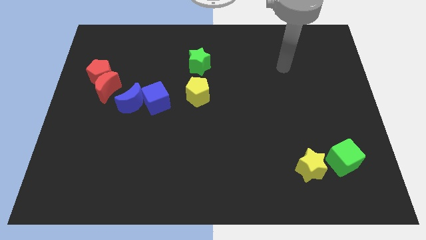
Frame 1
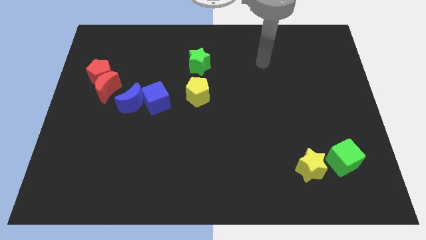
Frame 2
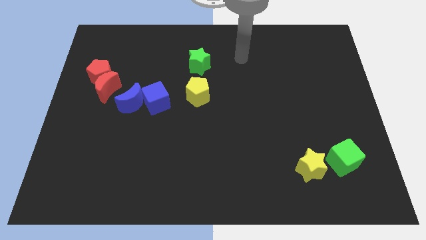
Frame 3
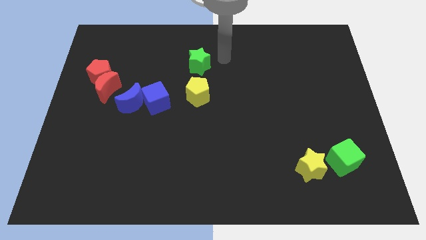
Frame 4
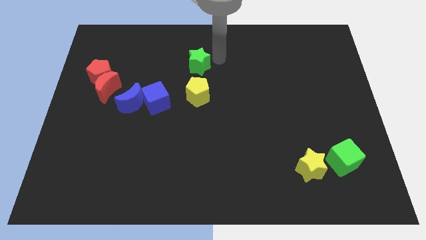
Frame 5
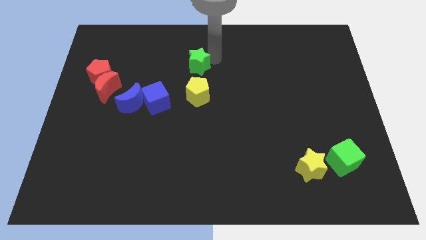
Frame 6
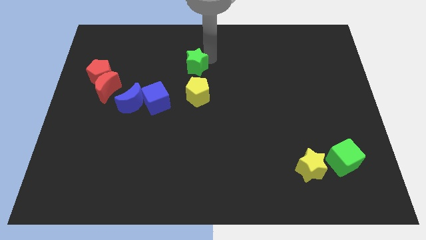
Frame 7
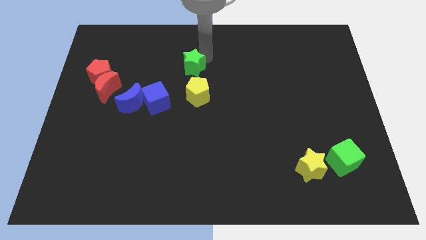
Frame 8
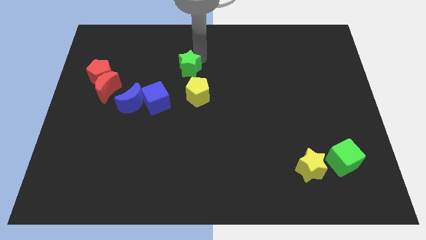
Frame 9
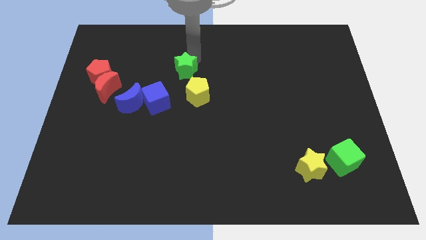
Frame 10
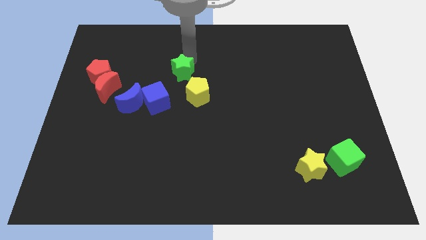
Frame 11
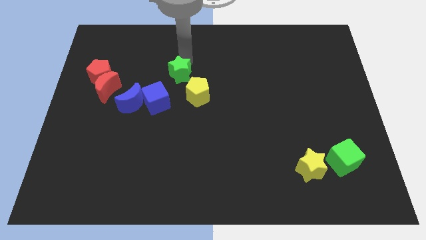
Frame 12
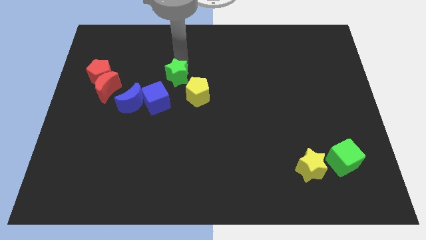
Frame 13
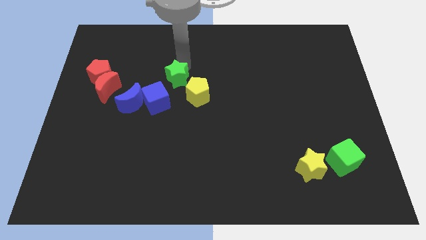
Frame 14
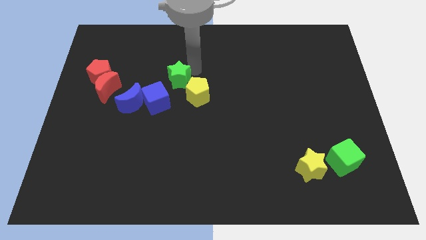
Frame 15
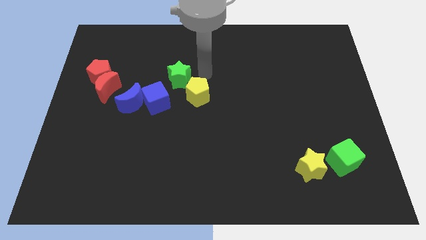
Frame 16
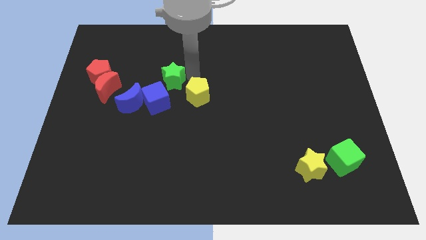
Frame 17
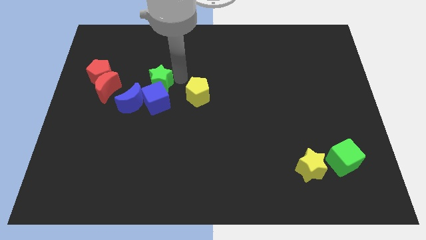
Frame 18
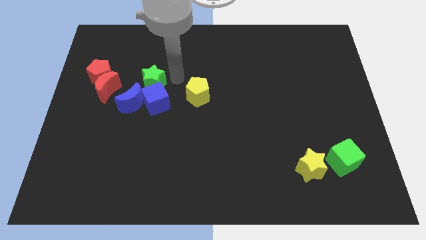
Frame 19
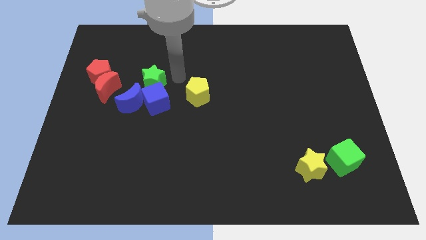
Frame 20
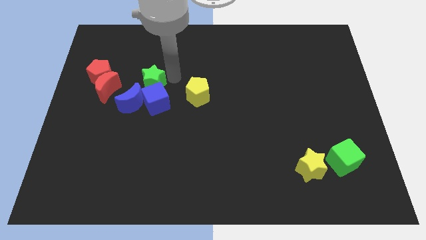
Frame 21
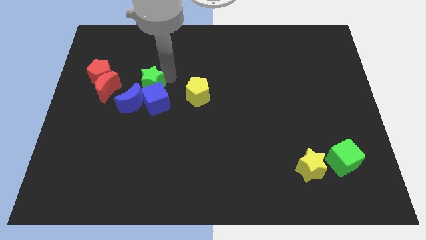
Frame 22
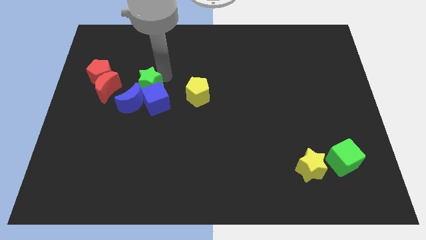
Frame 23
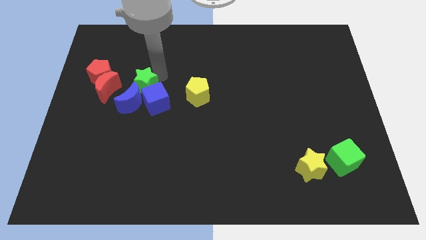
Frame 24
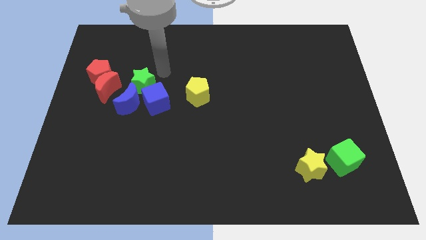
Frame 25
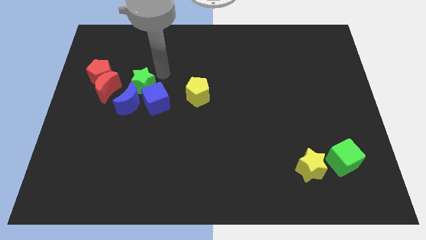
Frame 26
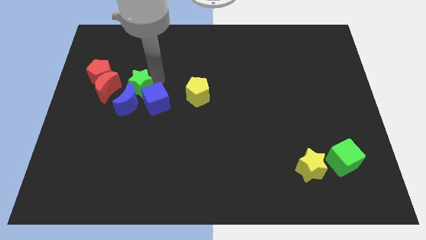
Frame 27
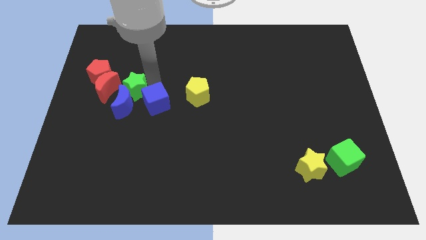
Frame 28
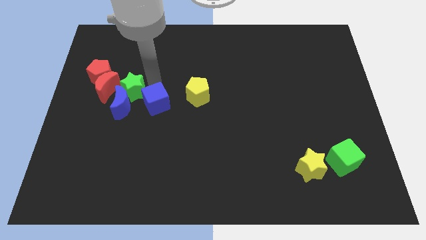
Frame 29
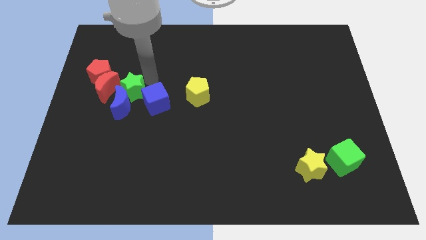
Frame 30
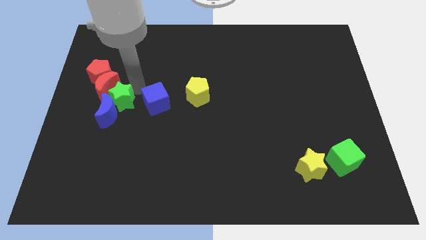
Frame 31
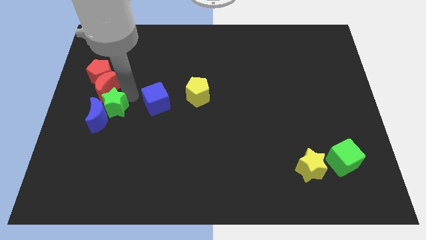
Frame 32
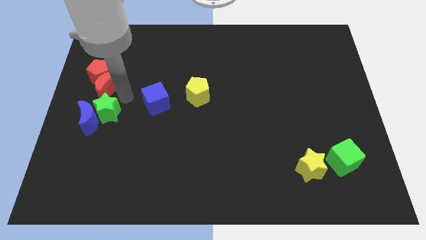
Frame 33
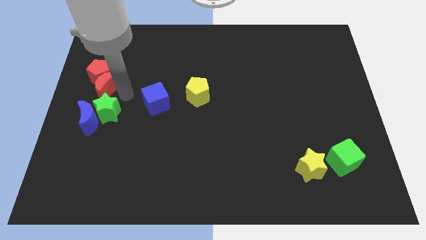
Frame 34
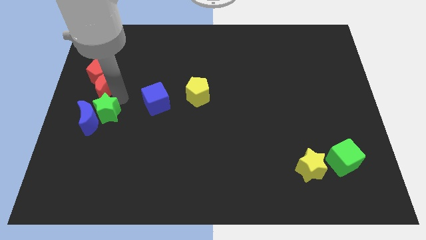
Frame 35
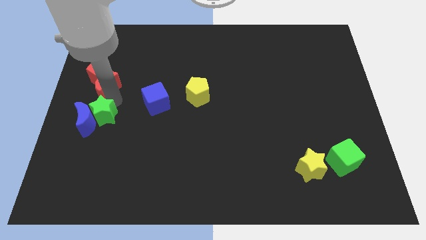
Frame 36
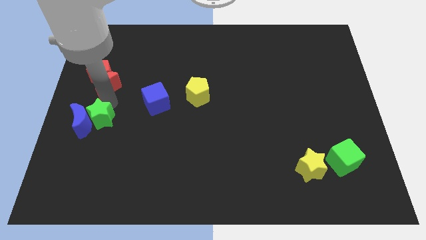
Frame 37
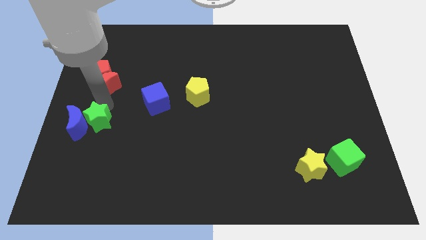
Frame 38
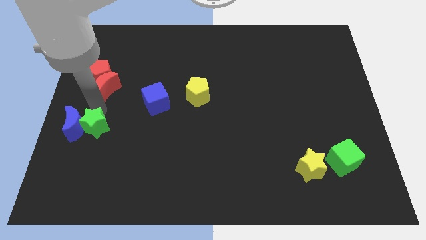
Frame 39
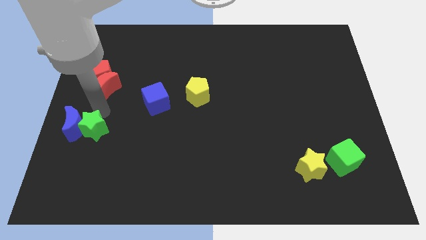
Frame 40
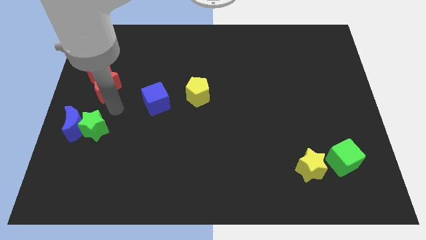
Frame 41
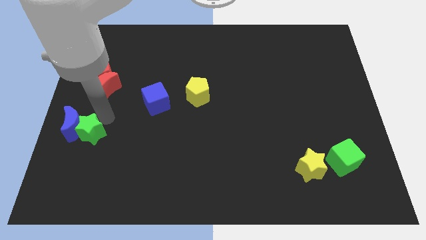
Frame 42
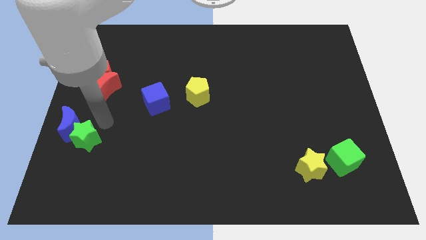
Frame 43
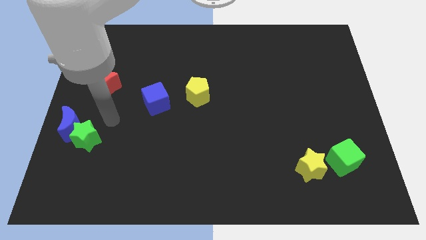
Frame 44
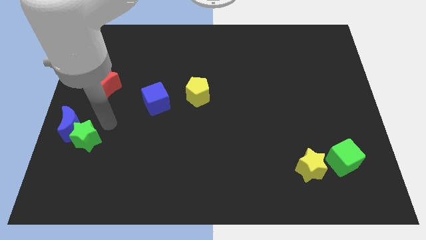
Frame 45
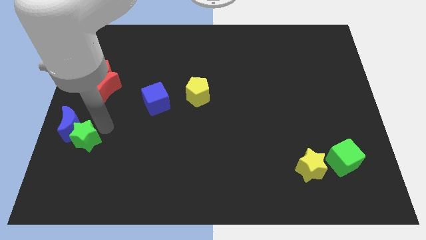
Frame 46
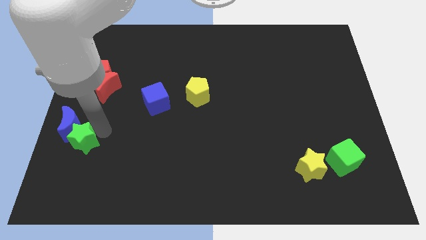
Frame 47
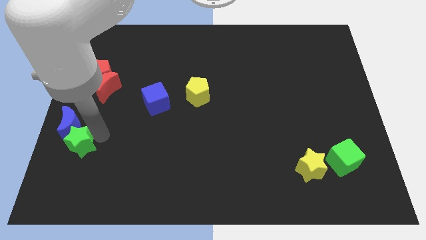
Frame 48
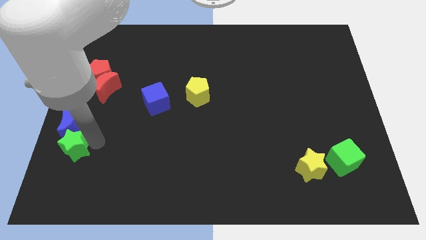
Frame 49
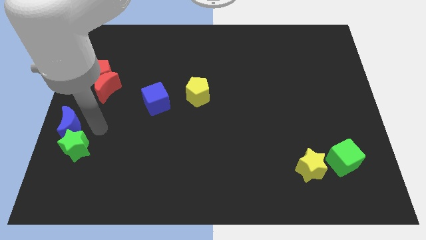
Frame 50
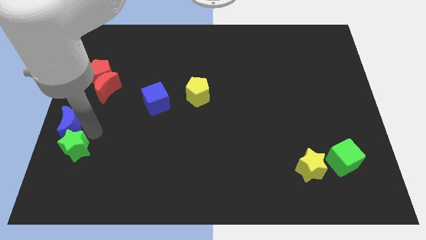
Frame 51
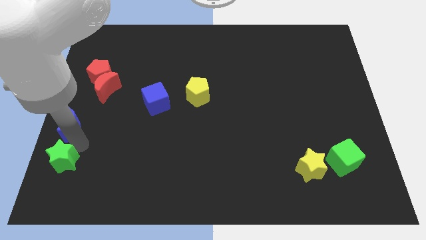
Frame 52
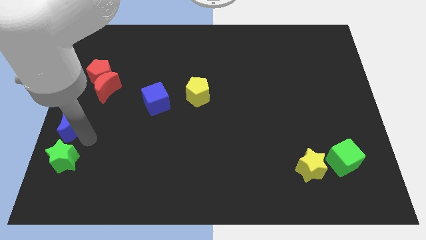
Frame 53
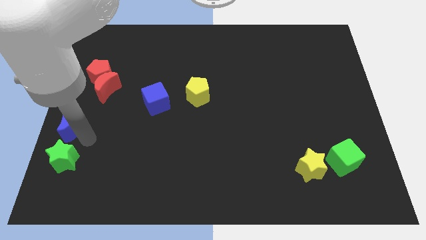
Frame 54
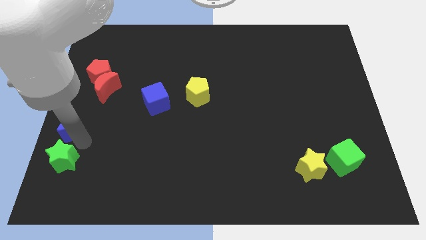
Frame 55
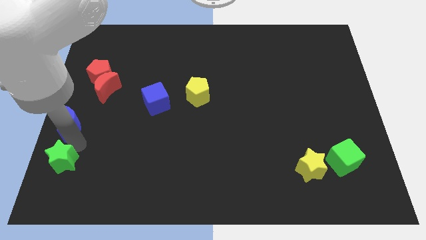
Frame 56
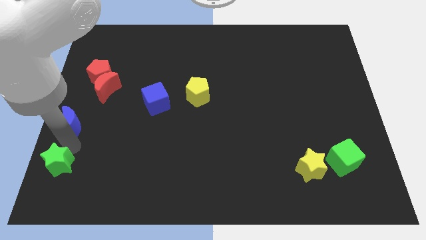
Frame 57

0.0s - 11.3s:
push the green star to the bottom left corner
